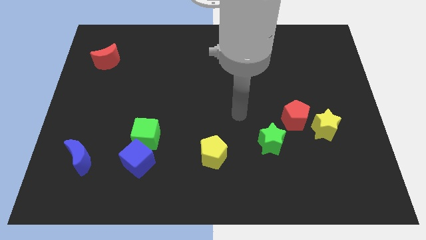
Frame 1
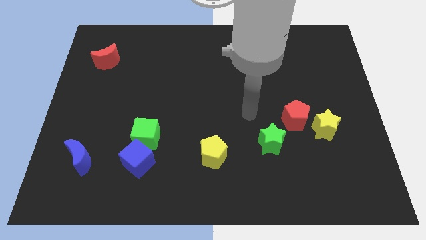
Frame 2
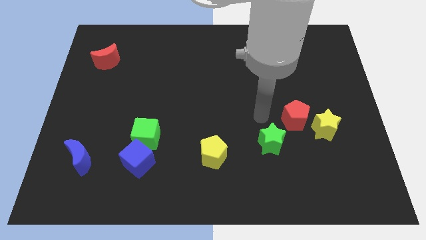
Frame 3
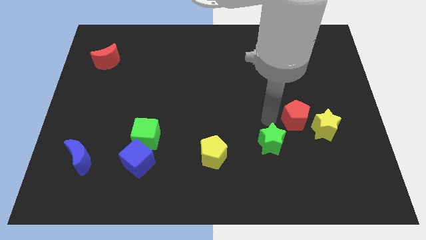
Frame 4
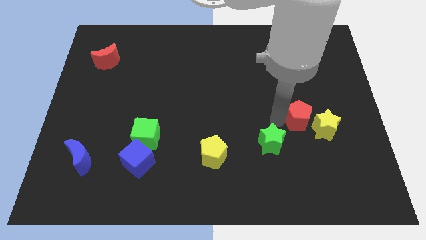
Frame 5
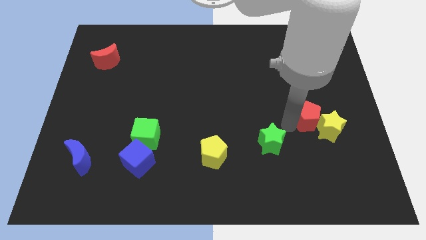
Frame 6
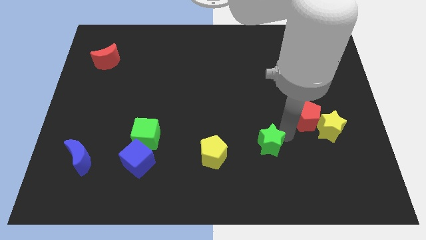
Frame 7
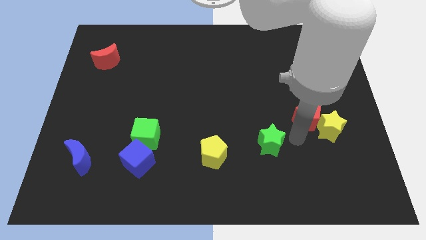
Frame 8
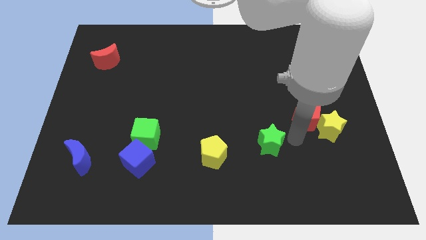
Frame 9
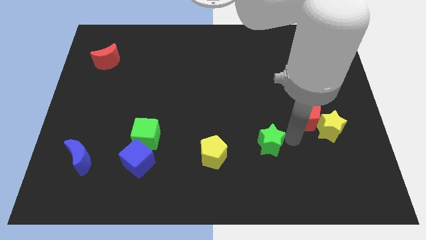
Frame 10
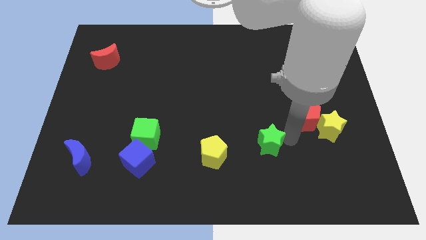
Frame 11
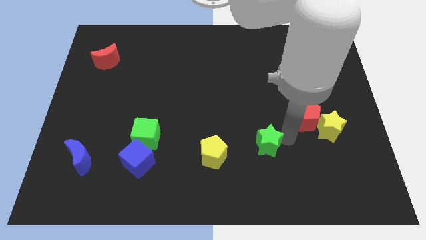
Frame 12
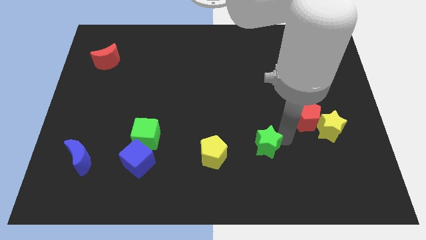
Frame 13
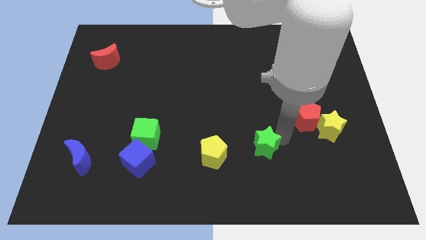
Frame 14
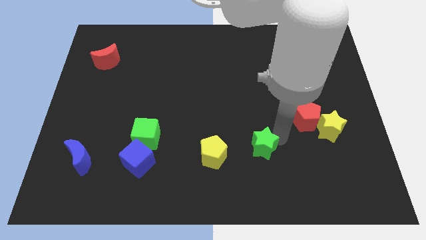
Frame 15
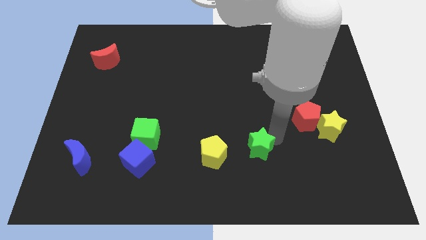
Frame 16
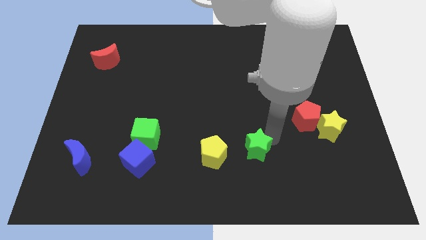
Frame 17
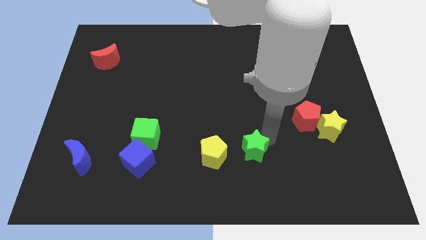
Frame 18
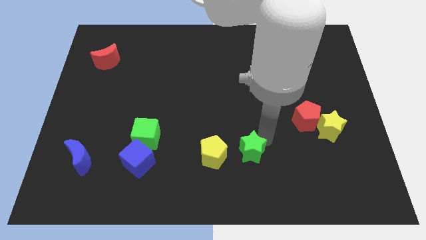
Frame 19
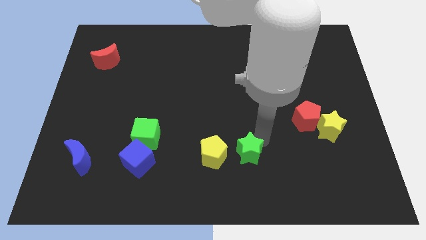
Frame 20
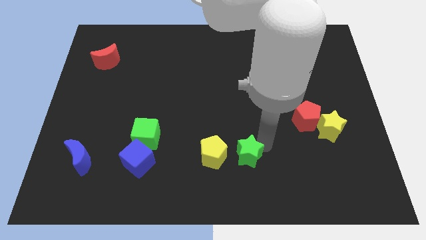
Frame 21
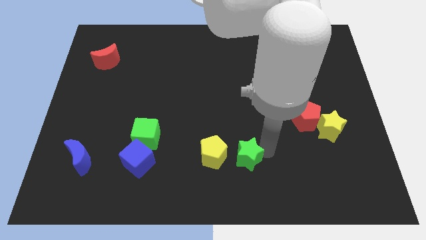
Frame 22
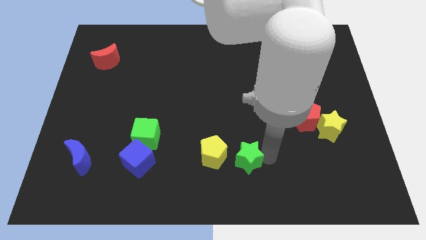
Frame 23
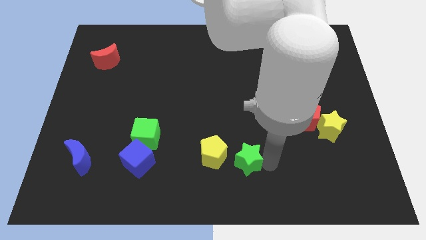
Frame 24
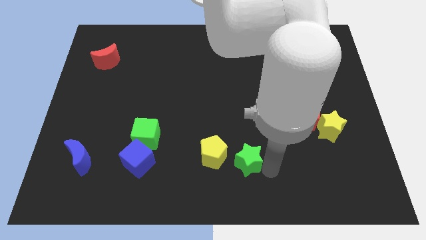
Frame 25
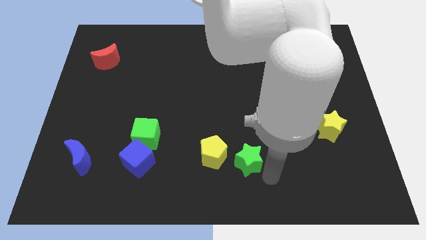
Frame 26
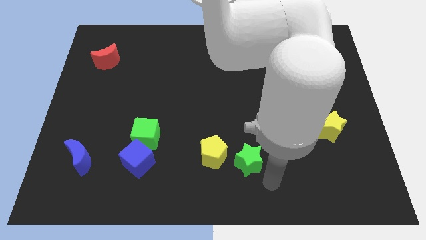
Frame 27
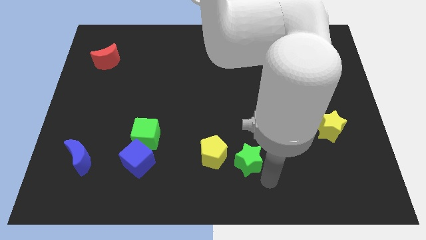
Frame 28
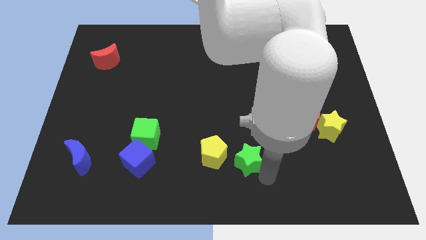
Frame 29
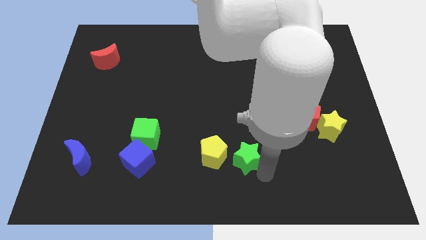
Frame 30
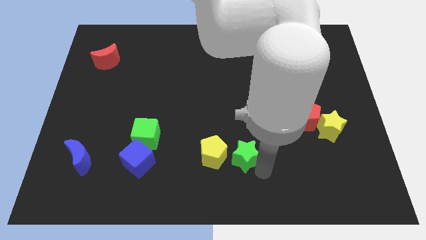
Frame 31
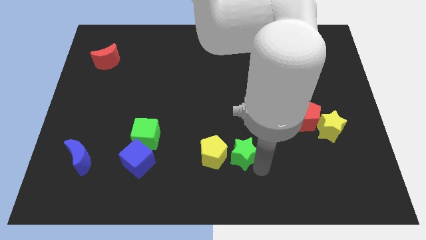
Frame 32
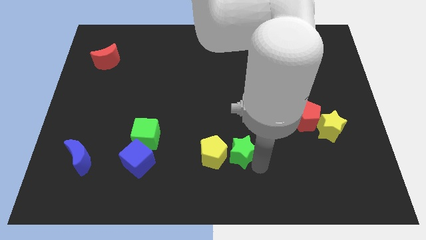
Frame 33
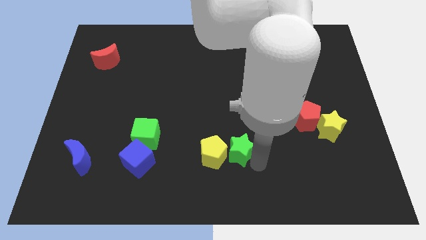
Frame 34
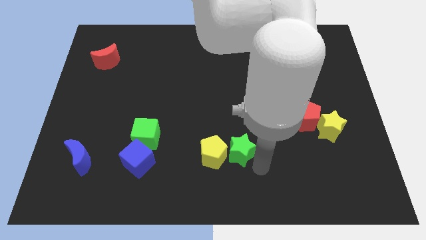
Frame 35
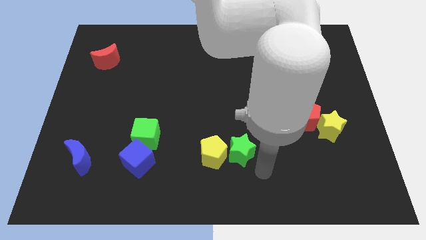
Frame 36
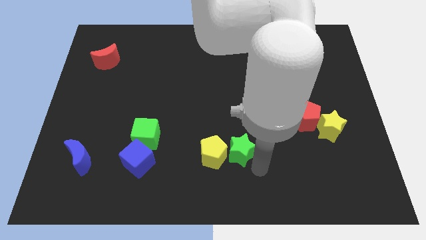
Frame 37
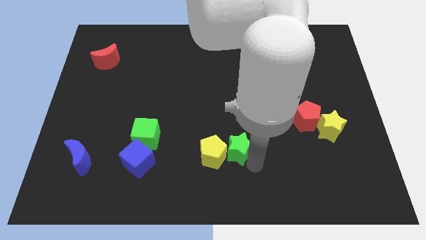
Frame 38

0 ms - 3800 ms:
push the green star to the left a bit

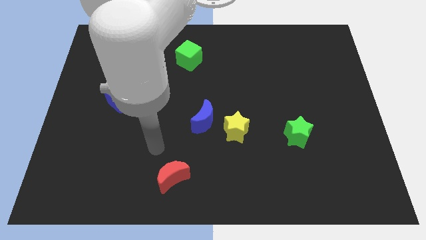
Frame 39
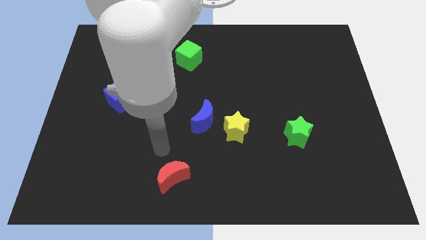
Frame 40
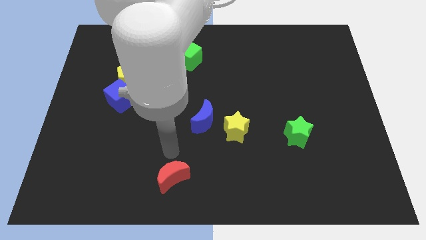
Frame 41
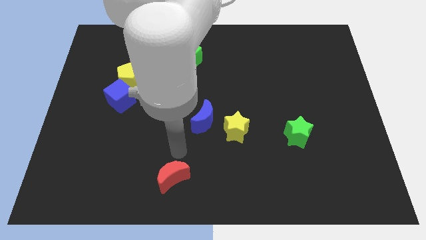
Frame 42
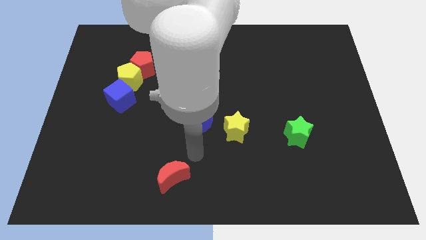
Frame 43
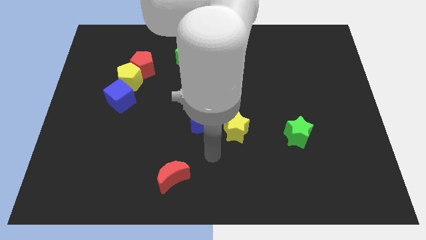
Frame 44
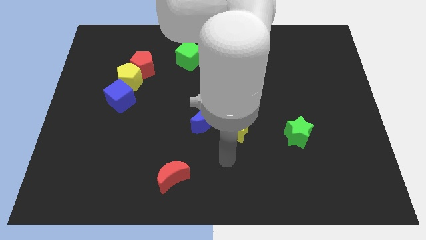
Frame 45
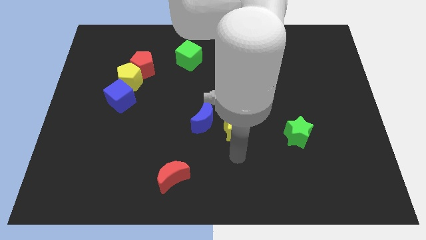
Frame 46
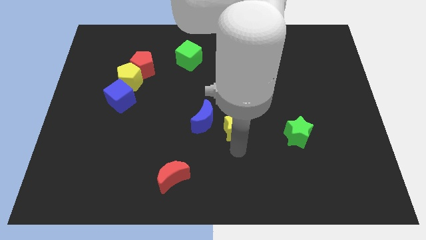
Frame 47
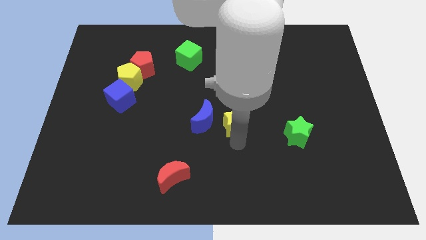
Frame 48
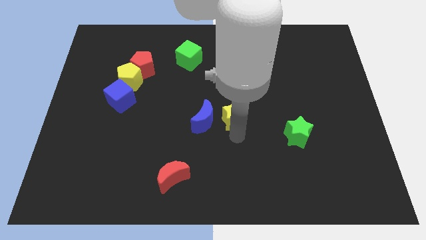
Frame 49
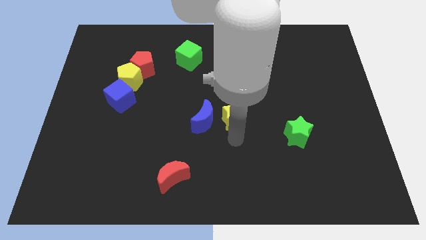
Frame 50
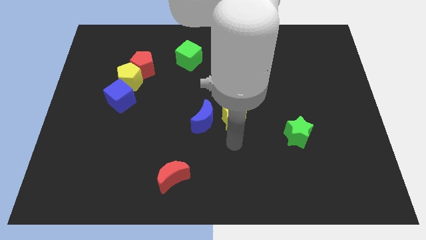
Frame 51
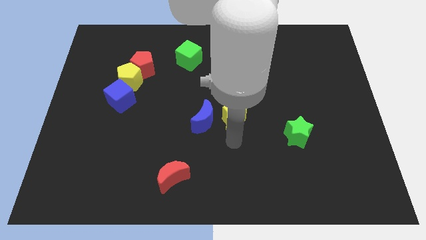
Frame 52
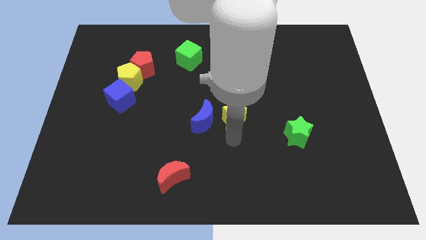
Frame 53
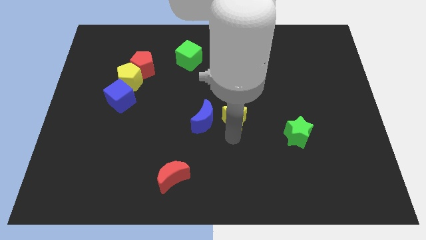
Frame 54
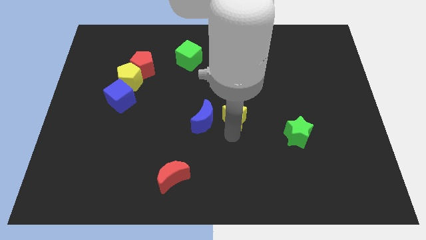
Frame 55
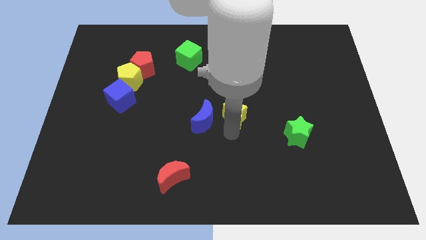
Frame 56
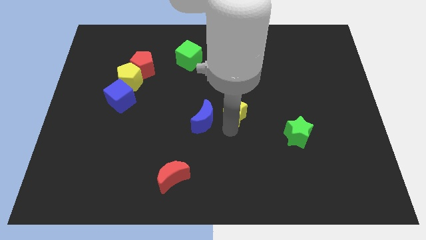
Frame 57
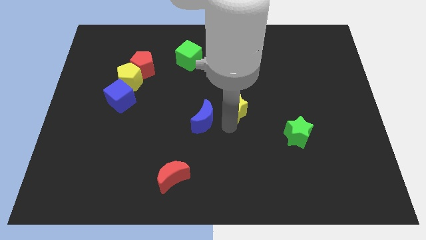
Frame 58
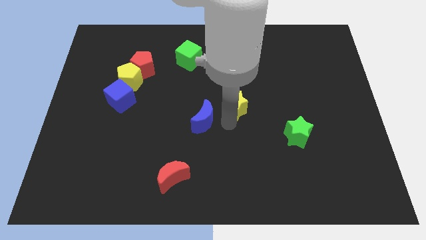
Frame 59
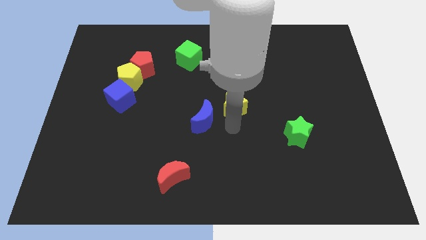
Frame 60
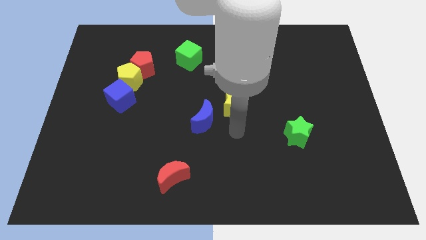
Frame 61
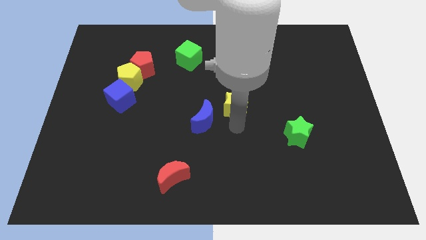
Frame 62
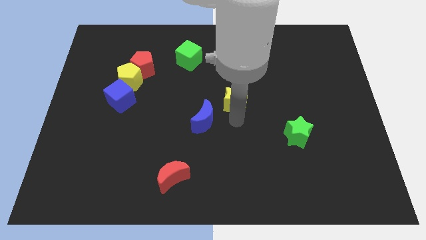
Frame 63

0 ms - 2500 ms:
slightly push the yellow star upwards

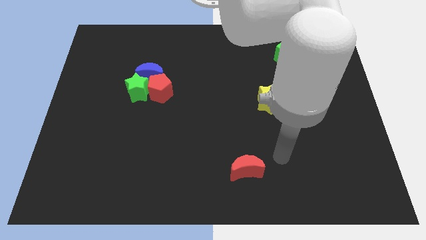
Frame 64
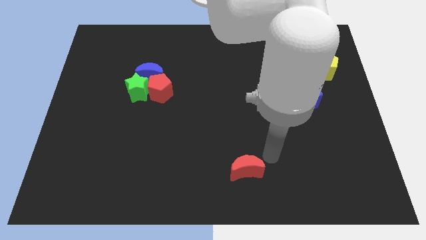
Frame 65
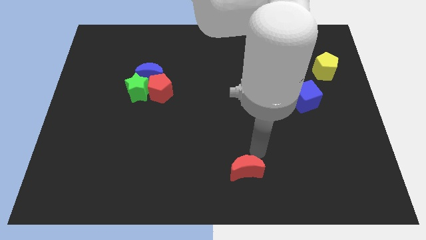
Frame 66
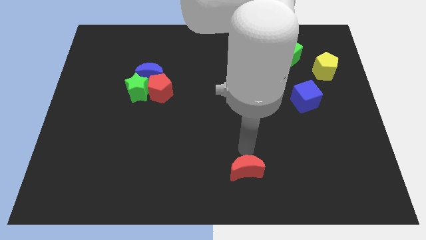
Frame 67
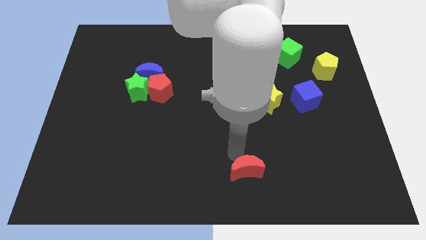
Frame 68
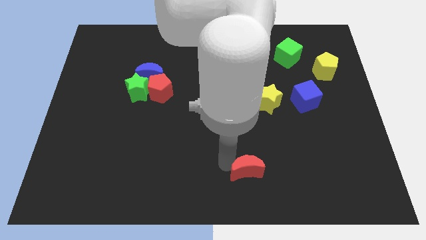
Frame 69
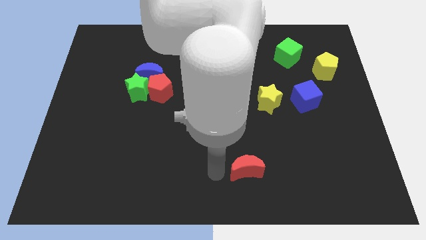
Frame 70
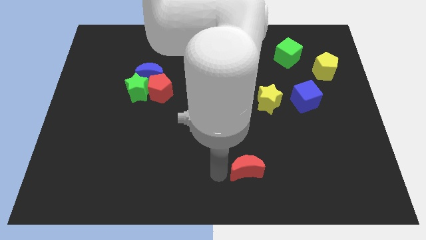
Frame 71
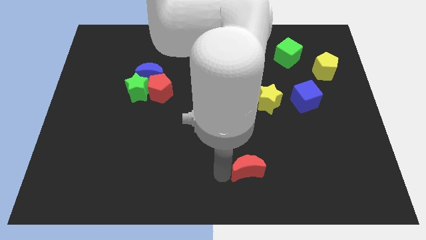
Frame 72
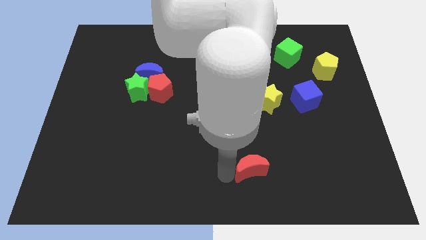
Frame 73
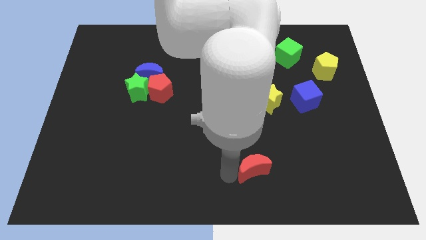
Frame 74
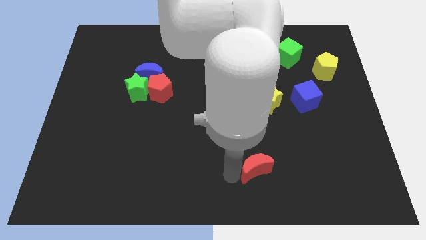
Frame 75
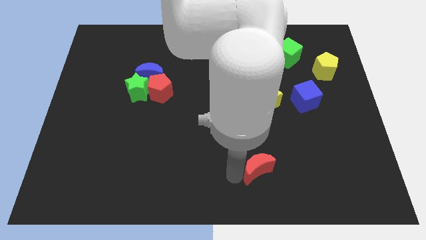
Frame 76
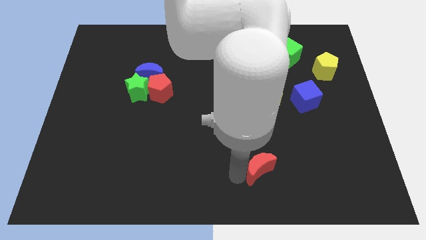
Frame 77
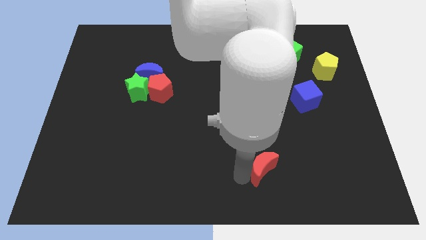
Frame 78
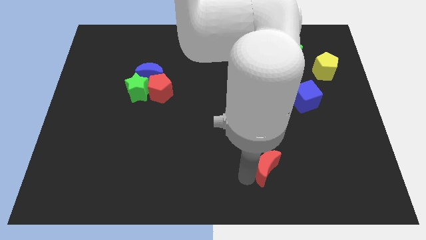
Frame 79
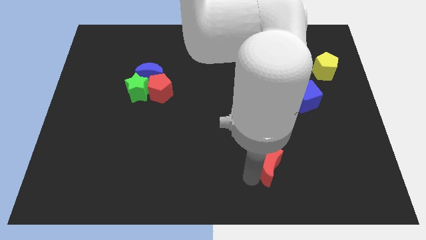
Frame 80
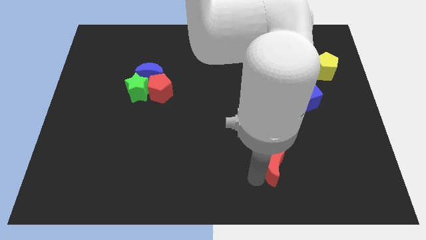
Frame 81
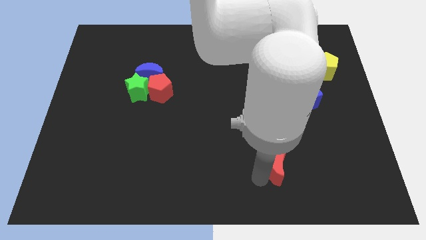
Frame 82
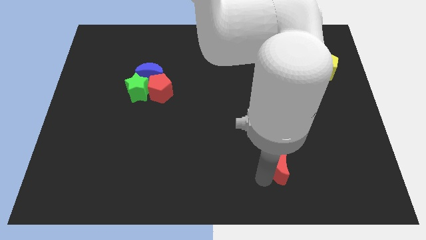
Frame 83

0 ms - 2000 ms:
slightly slide the red moon right
